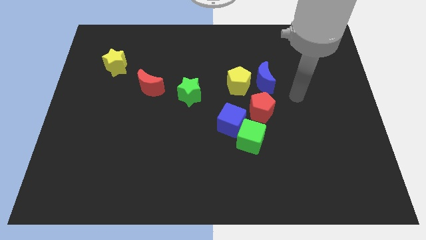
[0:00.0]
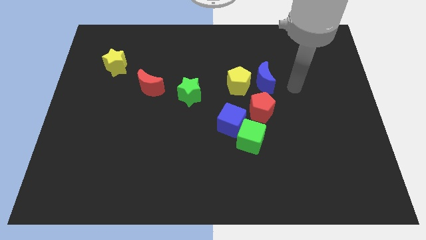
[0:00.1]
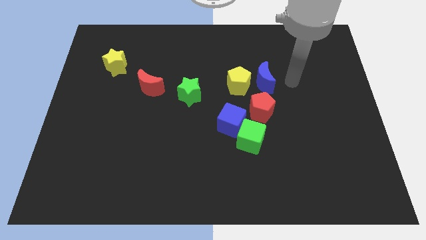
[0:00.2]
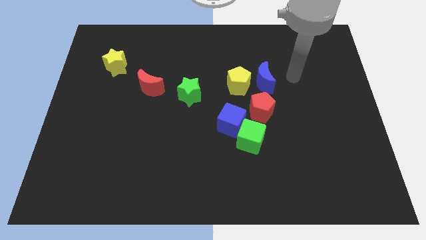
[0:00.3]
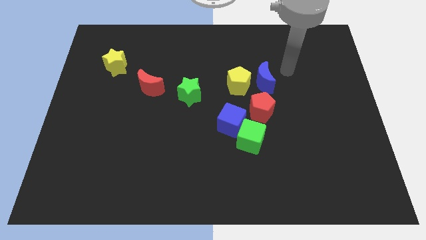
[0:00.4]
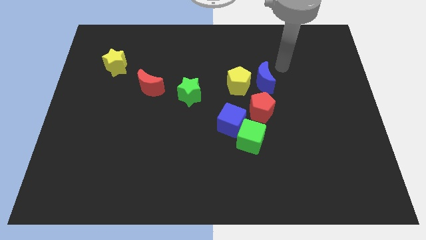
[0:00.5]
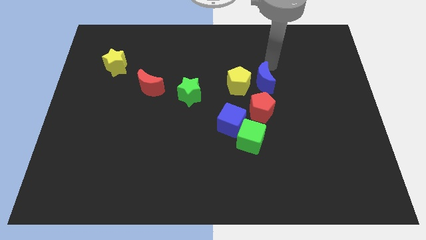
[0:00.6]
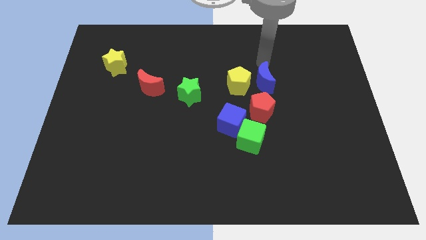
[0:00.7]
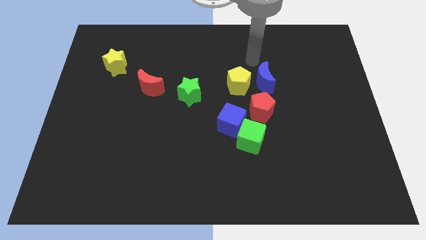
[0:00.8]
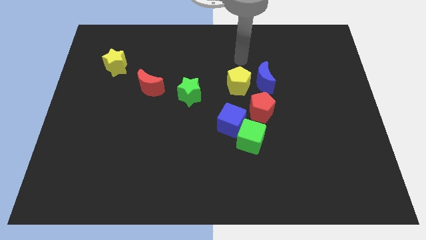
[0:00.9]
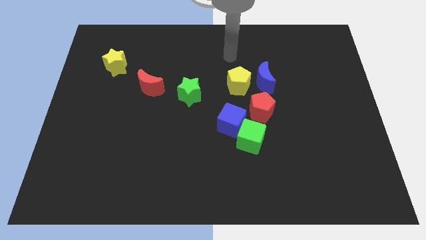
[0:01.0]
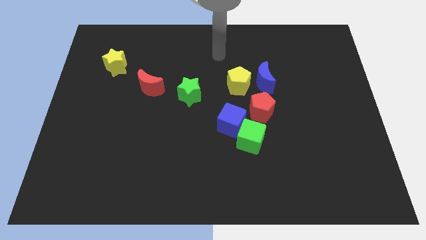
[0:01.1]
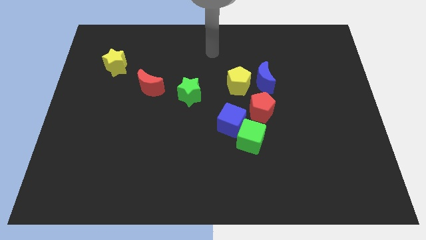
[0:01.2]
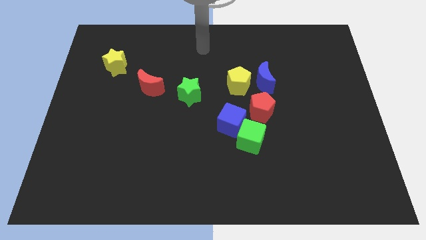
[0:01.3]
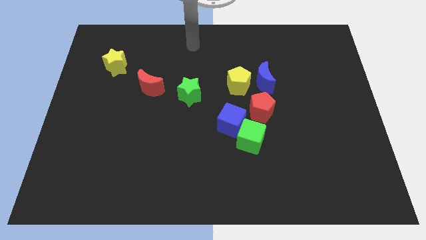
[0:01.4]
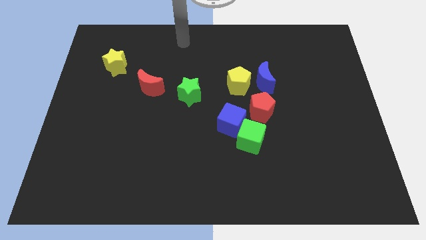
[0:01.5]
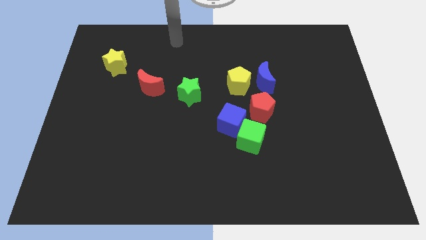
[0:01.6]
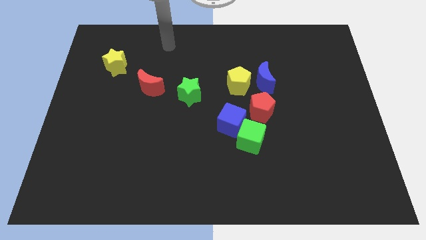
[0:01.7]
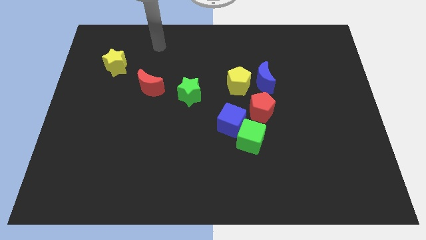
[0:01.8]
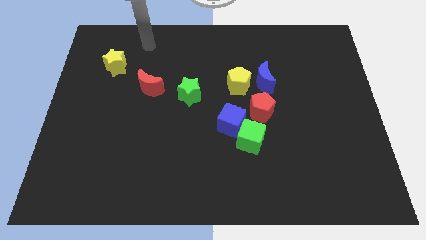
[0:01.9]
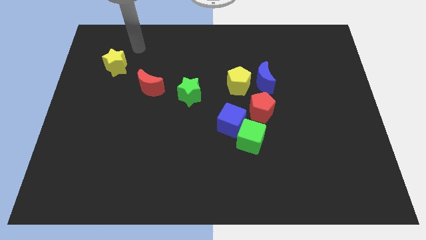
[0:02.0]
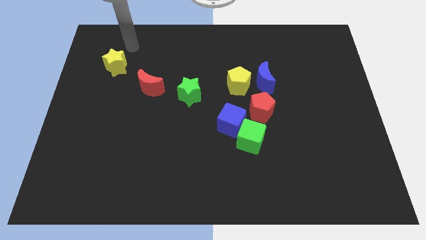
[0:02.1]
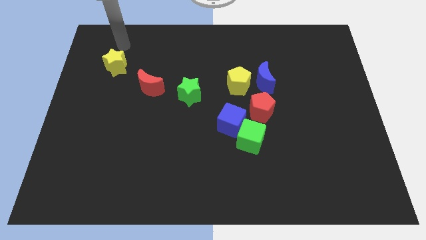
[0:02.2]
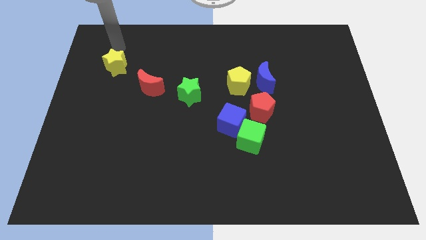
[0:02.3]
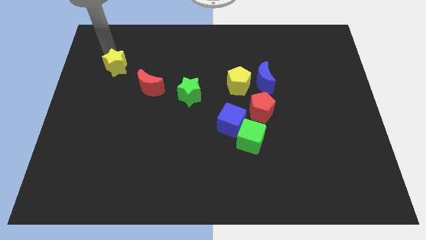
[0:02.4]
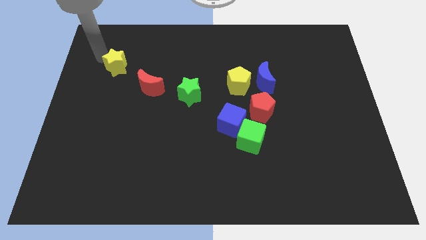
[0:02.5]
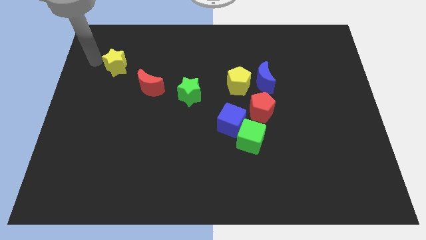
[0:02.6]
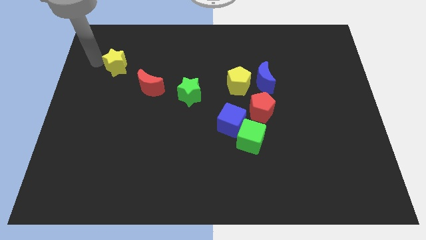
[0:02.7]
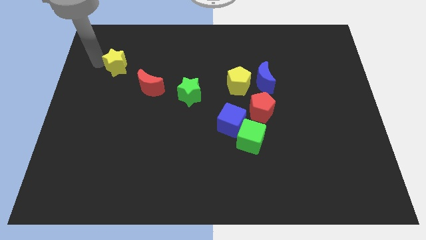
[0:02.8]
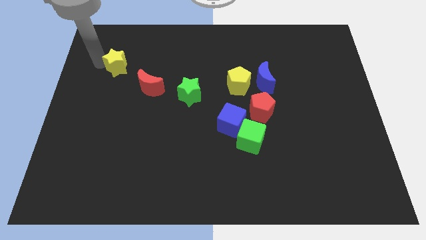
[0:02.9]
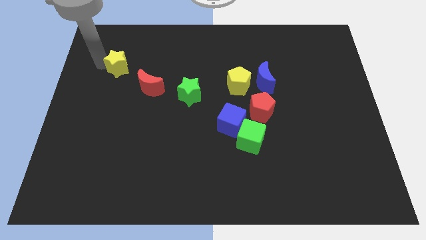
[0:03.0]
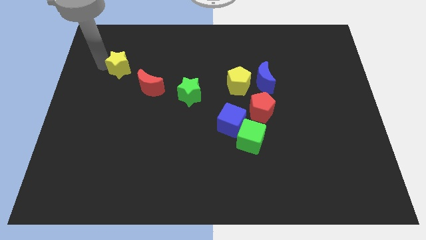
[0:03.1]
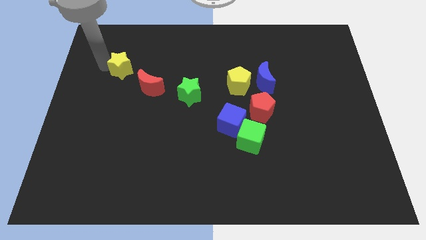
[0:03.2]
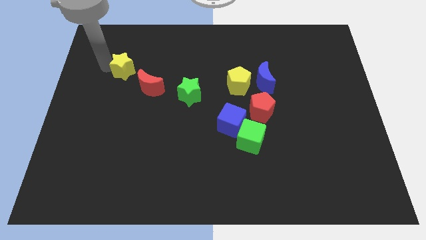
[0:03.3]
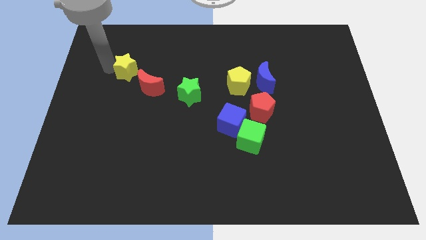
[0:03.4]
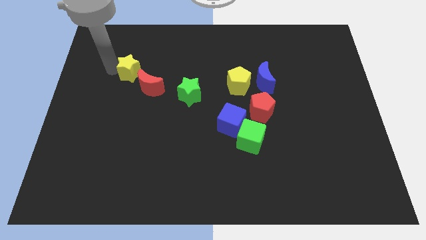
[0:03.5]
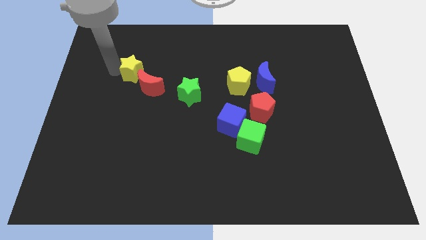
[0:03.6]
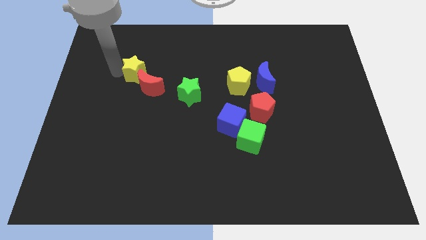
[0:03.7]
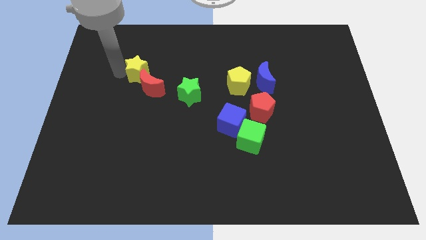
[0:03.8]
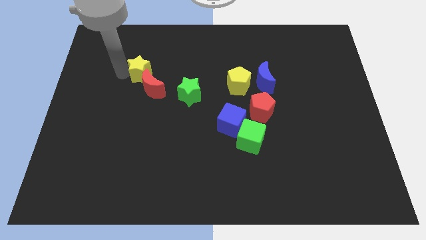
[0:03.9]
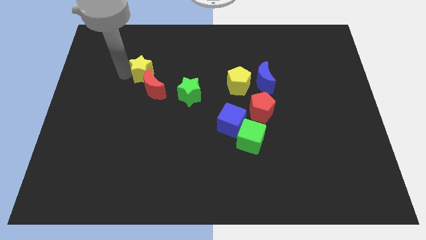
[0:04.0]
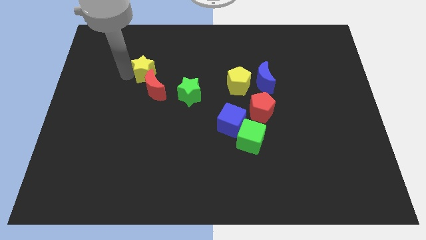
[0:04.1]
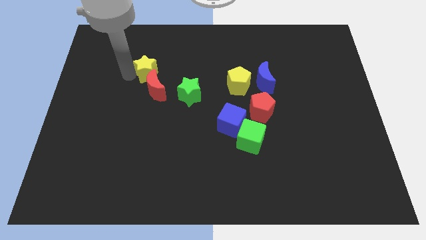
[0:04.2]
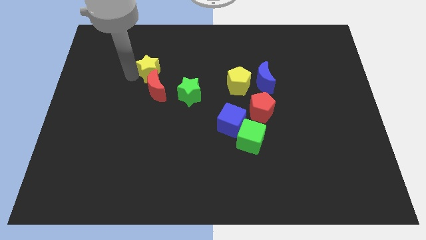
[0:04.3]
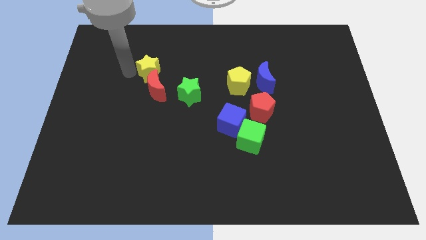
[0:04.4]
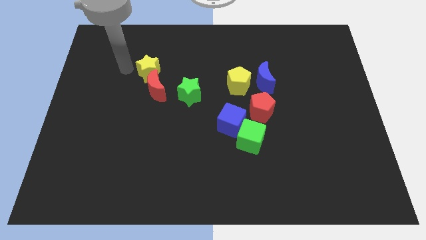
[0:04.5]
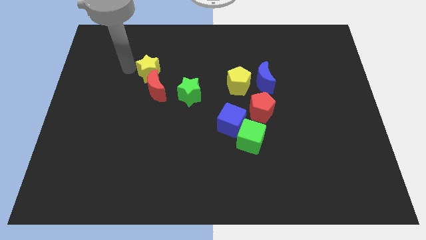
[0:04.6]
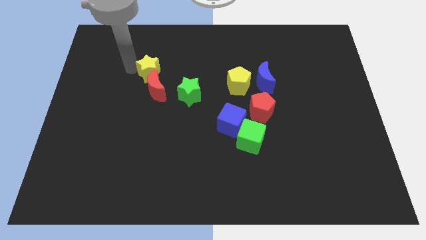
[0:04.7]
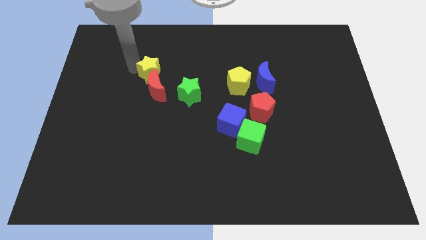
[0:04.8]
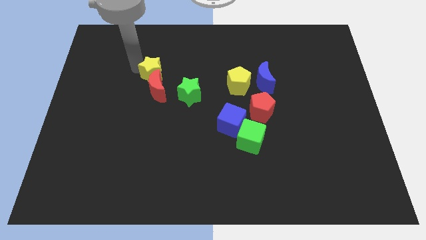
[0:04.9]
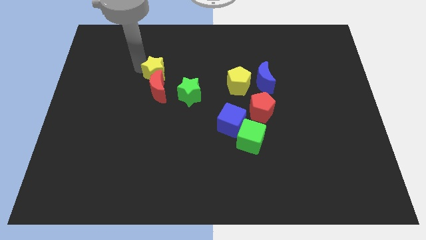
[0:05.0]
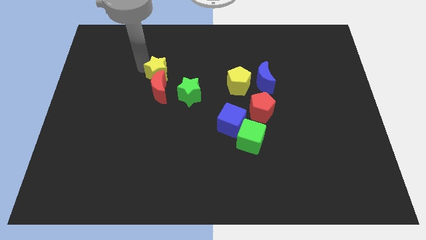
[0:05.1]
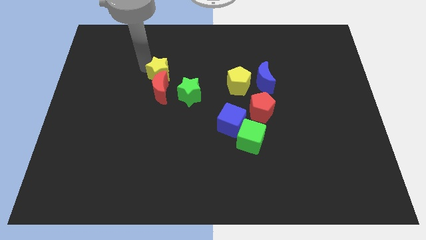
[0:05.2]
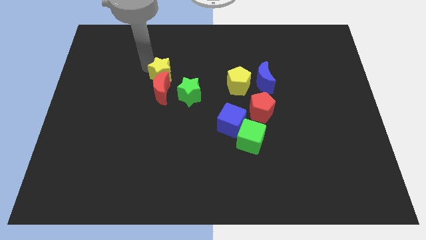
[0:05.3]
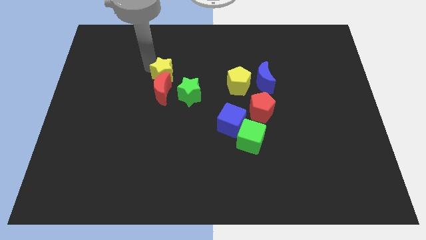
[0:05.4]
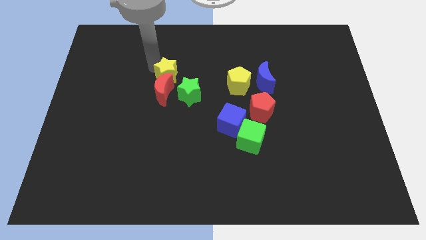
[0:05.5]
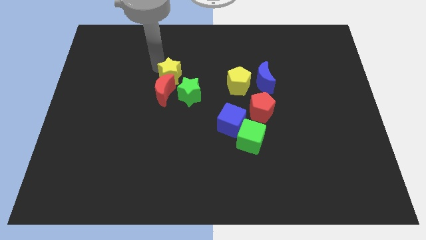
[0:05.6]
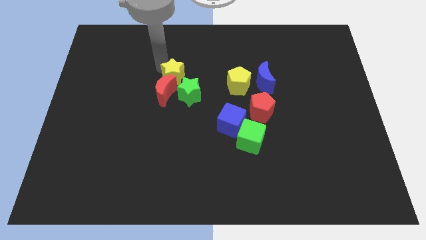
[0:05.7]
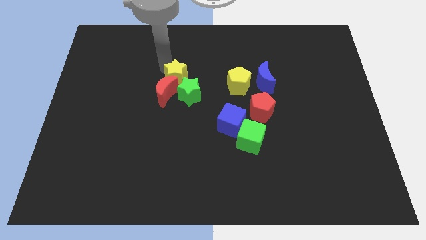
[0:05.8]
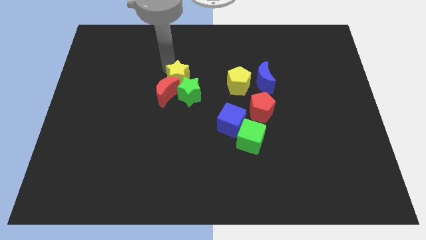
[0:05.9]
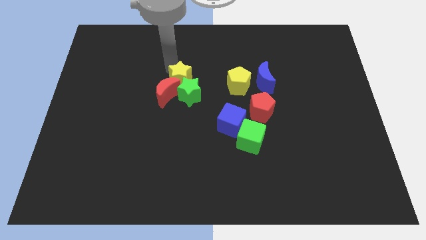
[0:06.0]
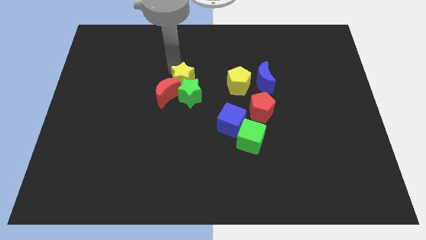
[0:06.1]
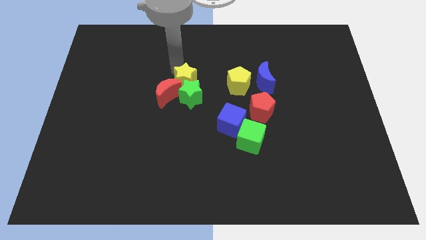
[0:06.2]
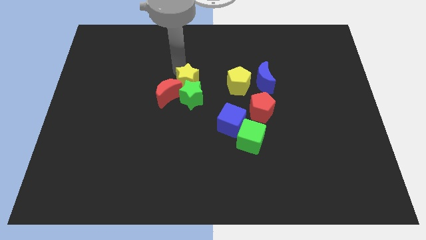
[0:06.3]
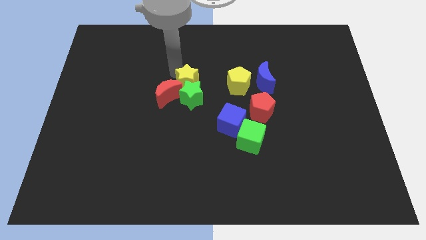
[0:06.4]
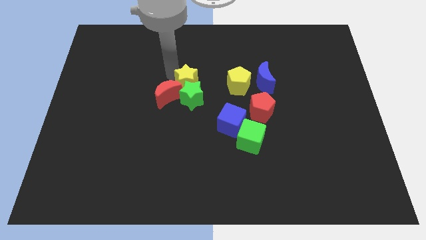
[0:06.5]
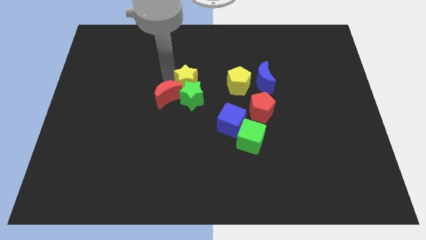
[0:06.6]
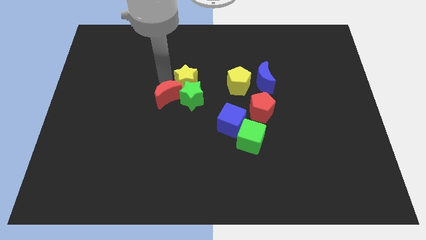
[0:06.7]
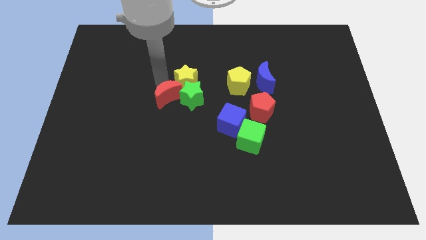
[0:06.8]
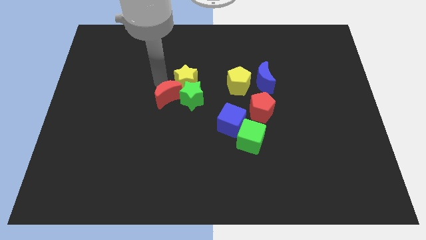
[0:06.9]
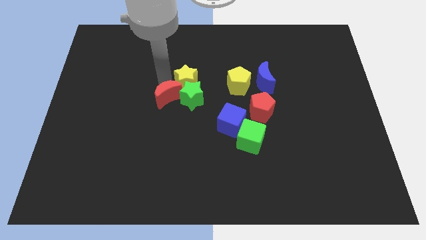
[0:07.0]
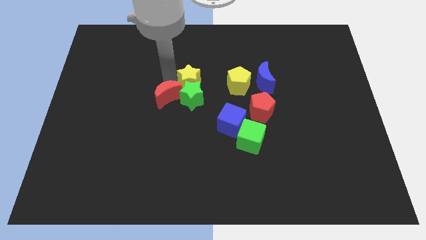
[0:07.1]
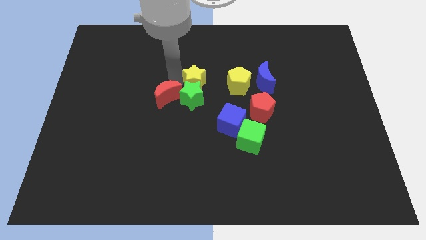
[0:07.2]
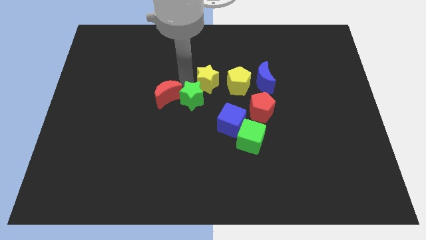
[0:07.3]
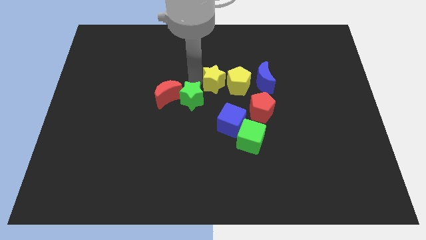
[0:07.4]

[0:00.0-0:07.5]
push the yellow star close to the yellow pentagon
